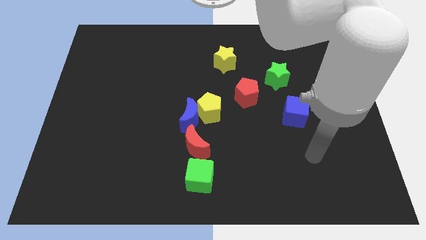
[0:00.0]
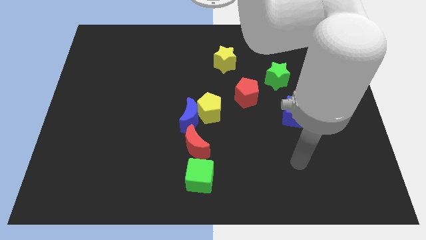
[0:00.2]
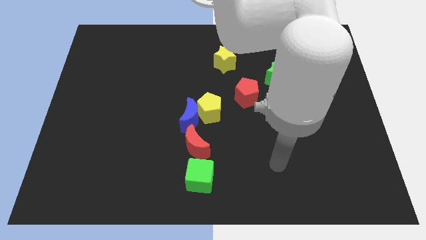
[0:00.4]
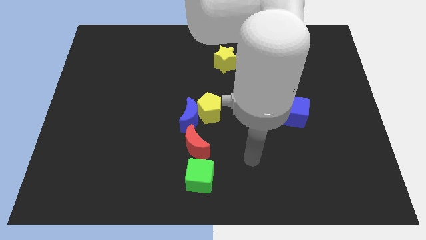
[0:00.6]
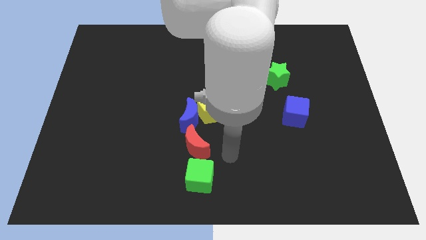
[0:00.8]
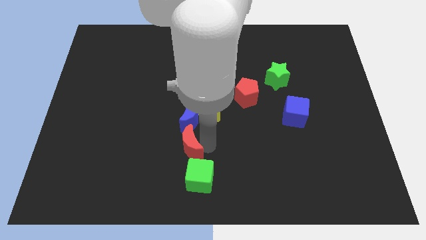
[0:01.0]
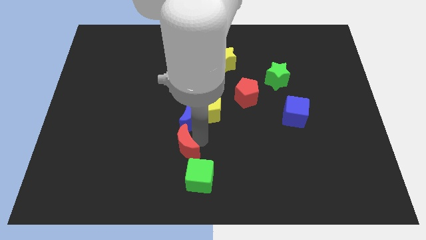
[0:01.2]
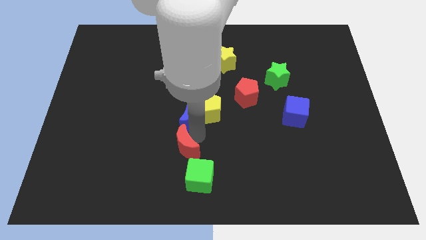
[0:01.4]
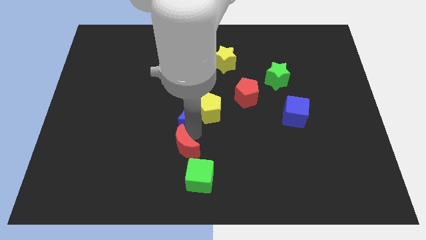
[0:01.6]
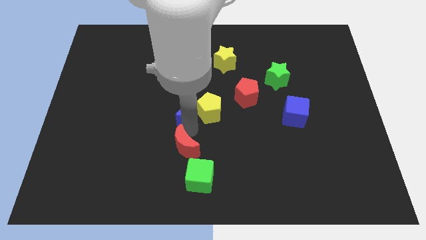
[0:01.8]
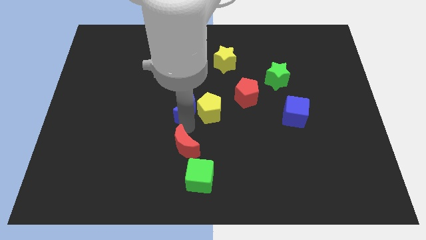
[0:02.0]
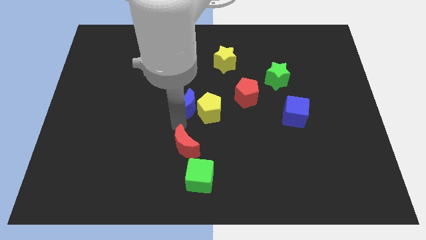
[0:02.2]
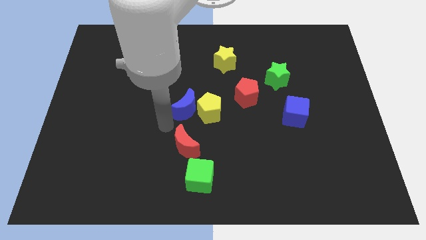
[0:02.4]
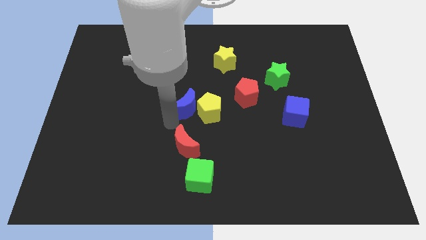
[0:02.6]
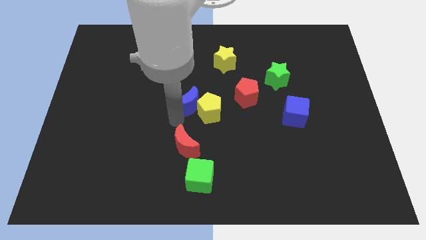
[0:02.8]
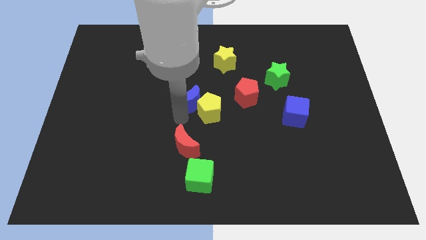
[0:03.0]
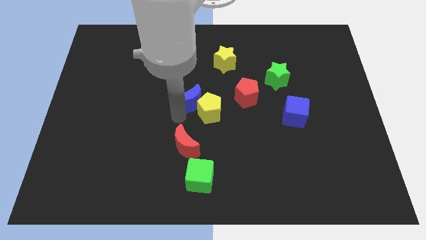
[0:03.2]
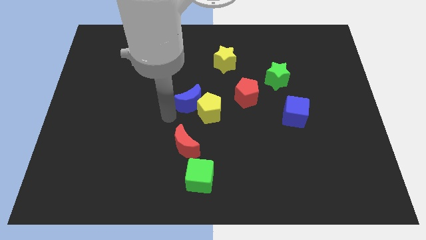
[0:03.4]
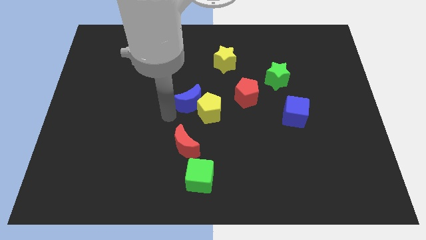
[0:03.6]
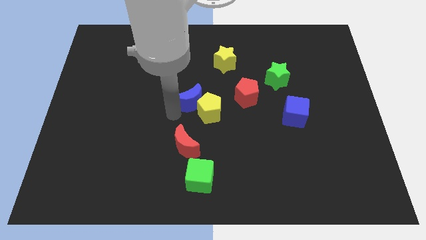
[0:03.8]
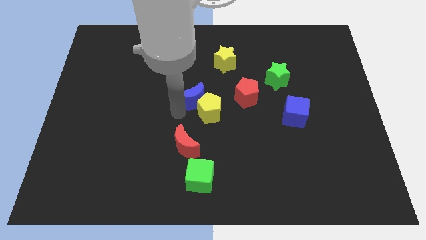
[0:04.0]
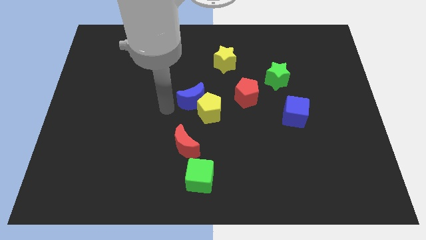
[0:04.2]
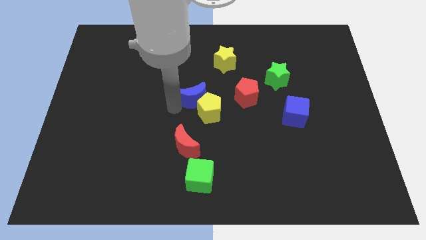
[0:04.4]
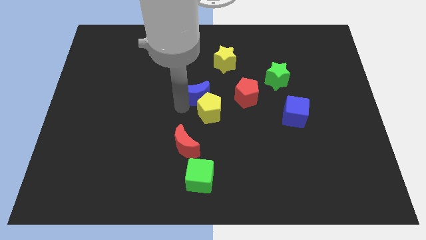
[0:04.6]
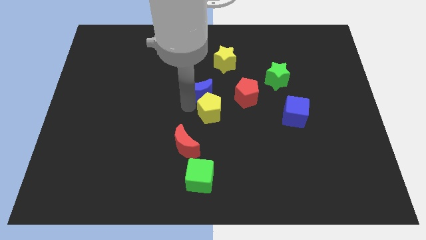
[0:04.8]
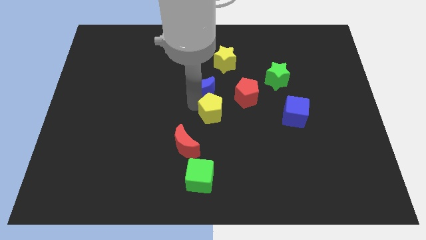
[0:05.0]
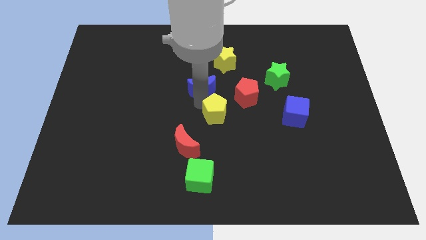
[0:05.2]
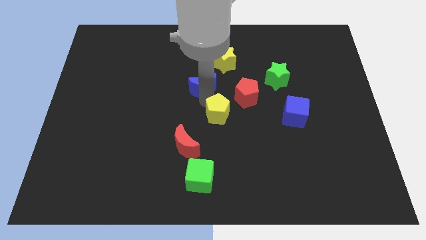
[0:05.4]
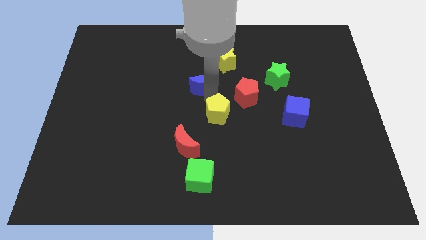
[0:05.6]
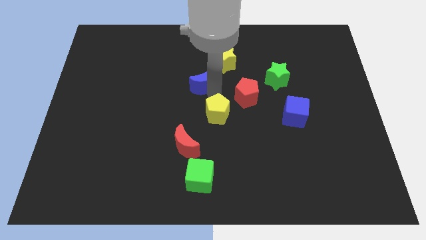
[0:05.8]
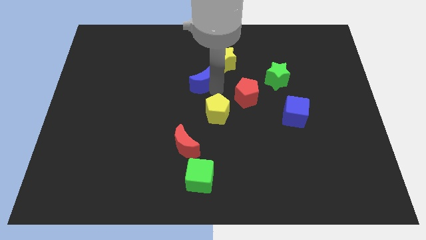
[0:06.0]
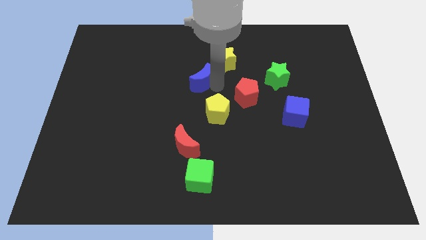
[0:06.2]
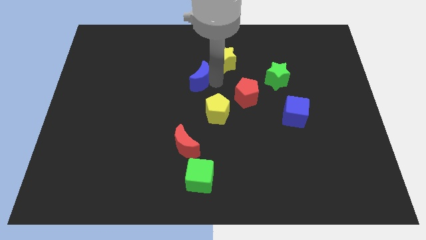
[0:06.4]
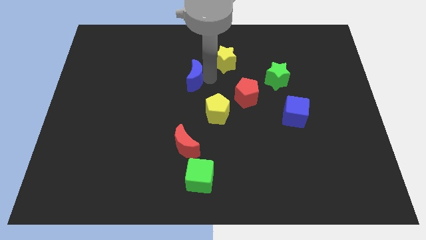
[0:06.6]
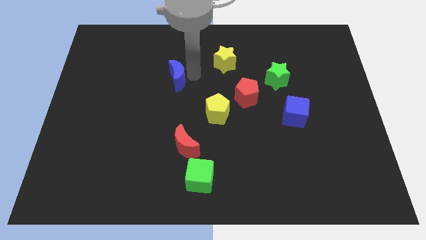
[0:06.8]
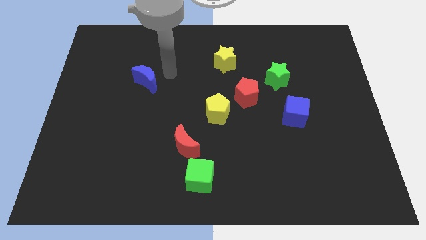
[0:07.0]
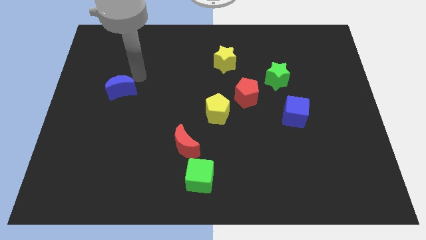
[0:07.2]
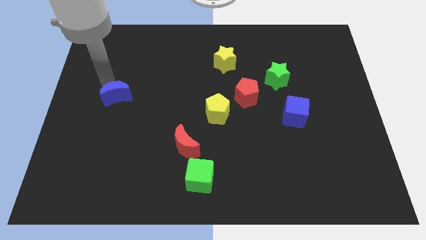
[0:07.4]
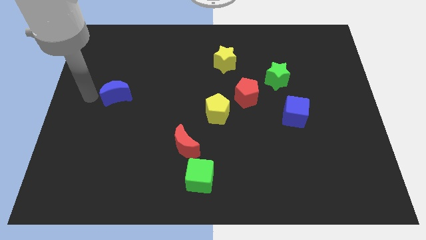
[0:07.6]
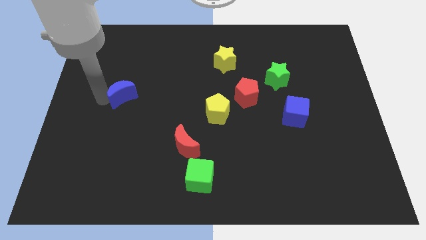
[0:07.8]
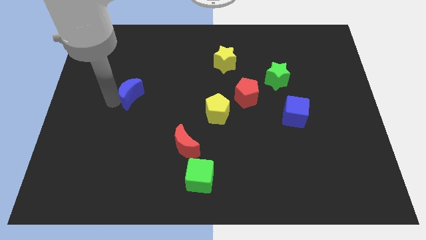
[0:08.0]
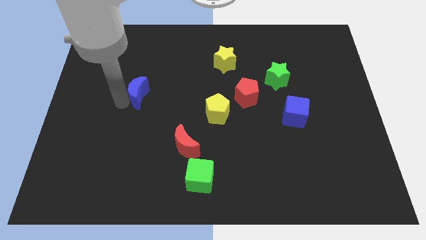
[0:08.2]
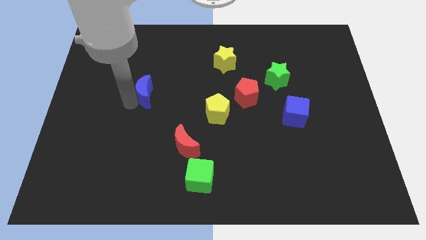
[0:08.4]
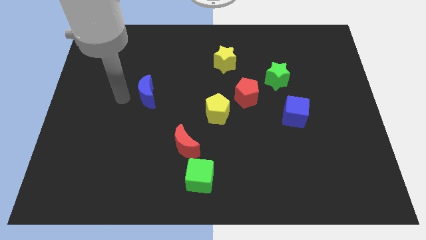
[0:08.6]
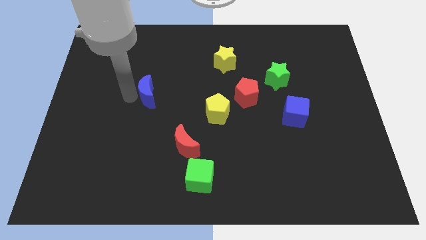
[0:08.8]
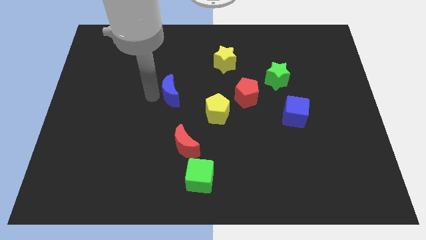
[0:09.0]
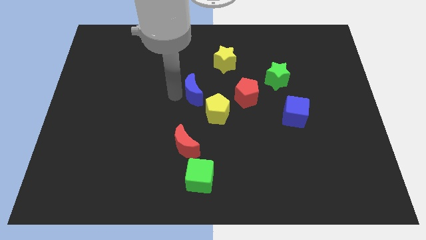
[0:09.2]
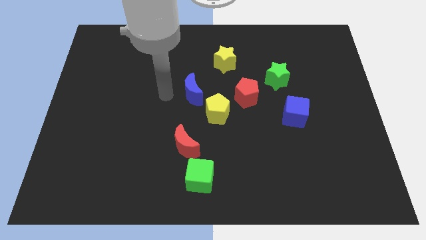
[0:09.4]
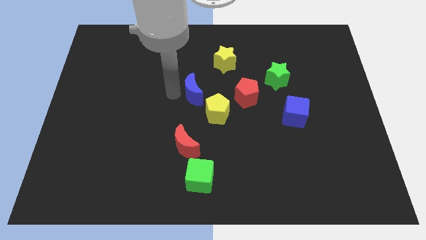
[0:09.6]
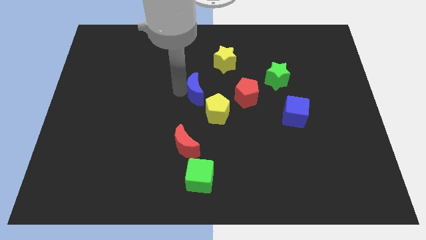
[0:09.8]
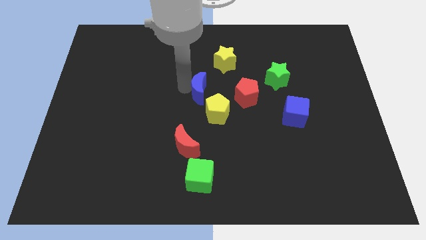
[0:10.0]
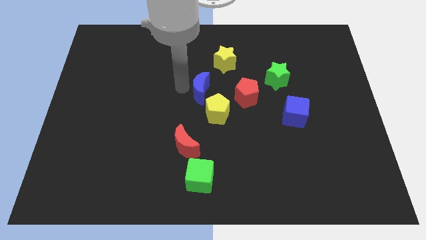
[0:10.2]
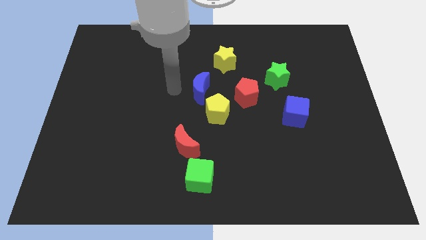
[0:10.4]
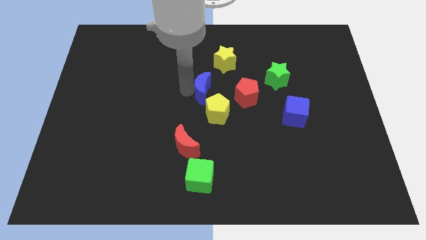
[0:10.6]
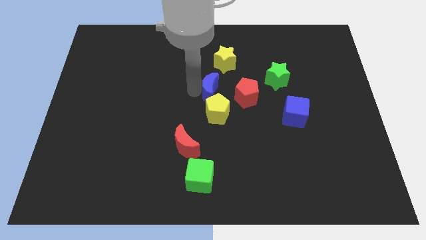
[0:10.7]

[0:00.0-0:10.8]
move the blue moon to the bottom side of the yellow star

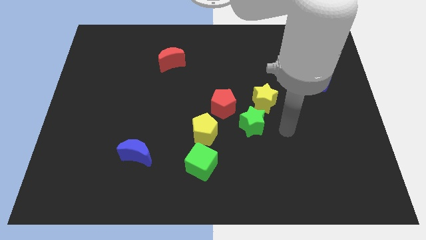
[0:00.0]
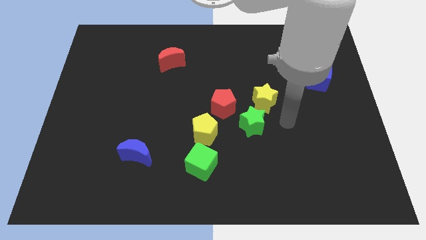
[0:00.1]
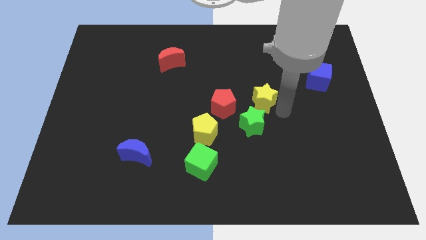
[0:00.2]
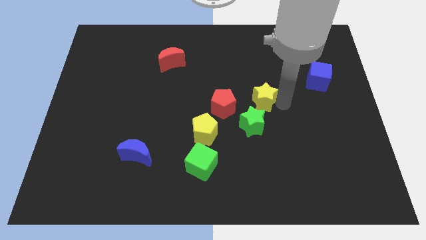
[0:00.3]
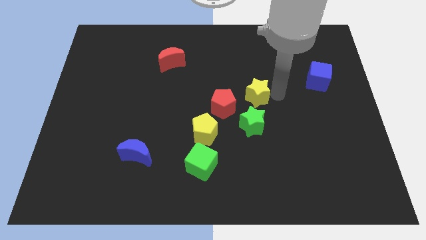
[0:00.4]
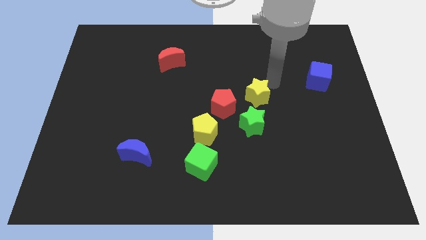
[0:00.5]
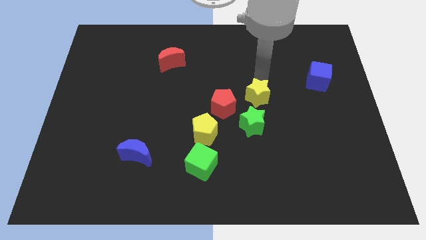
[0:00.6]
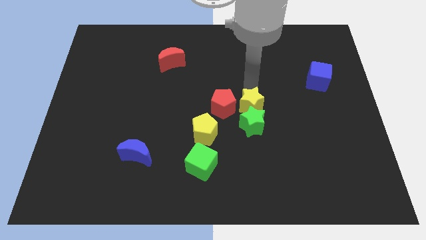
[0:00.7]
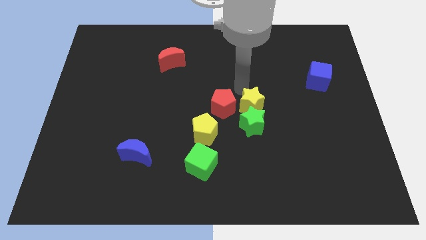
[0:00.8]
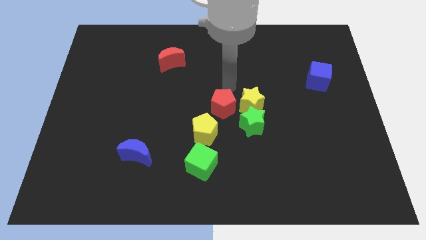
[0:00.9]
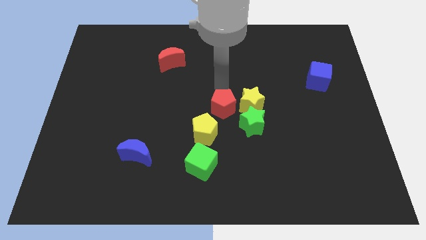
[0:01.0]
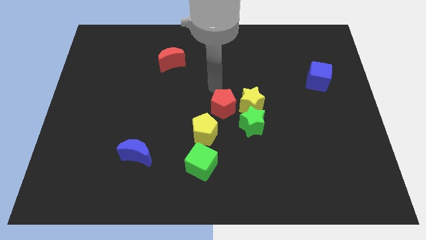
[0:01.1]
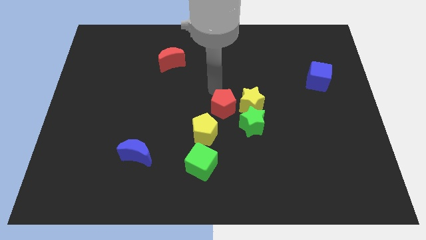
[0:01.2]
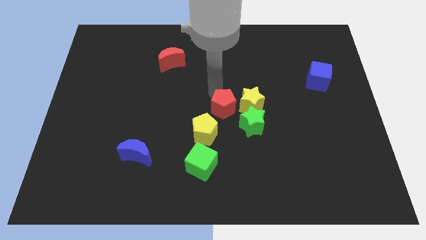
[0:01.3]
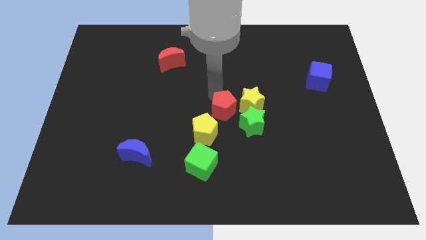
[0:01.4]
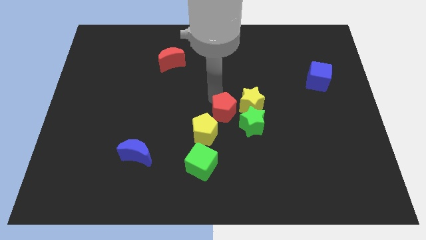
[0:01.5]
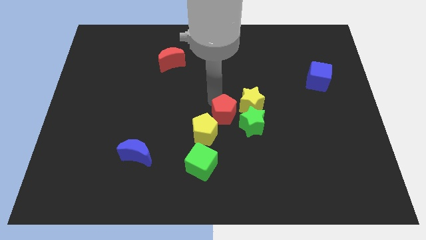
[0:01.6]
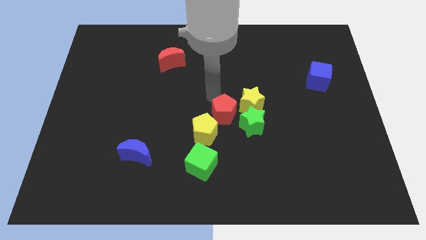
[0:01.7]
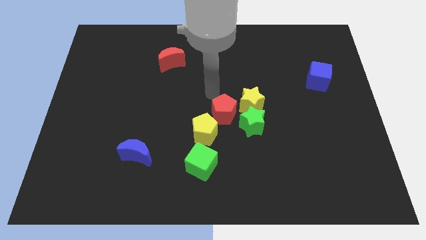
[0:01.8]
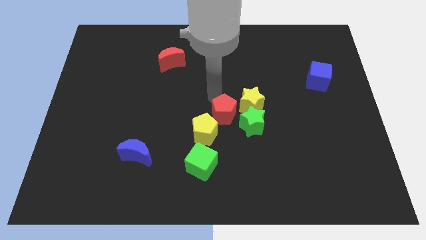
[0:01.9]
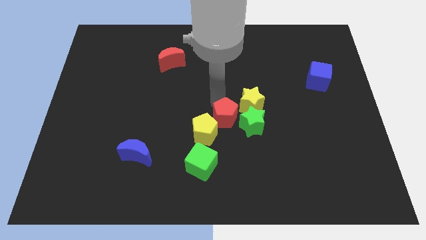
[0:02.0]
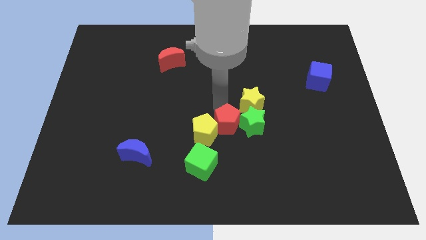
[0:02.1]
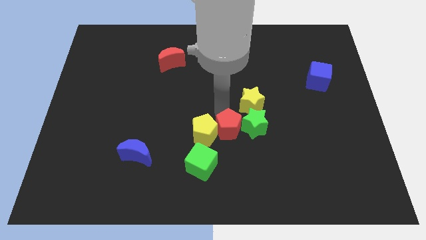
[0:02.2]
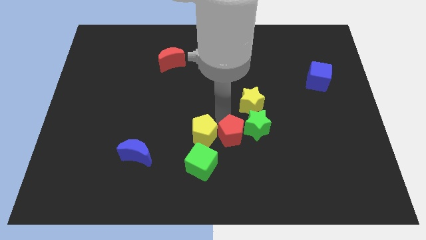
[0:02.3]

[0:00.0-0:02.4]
push the red pentagon to the bottom of the yellow star
